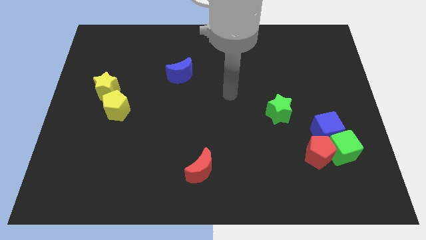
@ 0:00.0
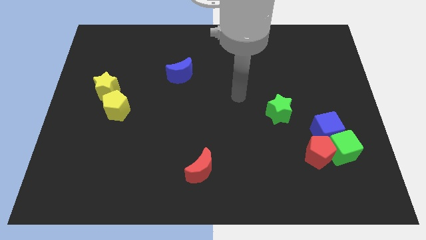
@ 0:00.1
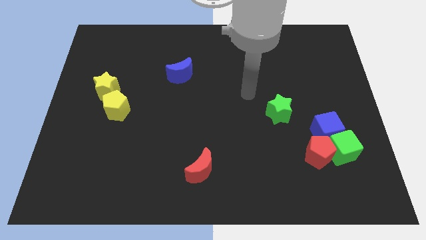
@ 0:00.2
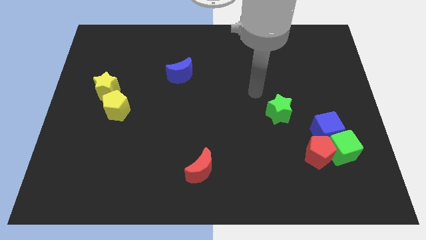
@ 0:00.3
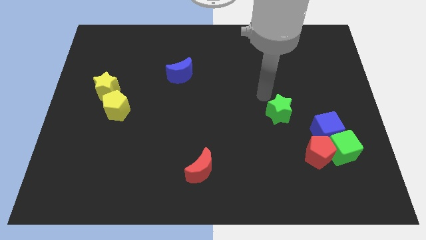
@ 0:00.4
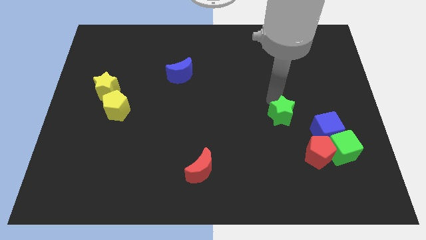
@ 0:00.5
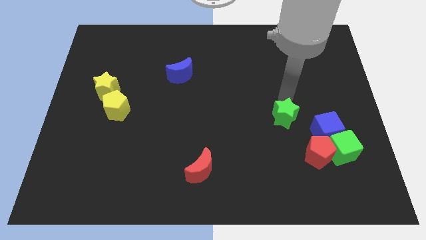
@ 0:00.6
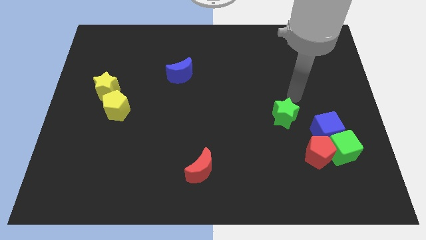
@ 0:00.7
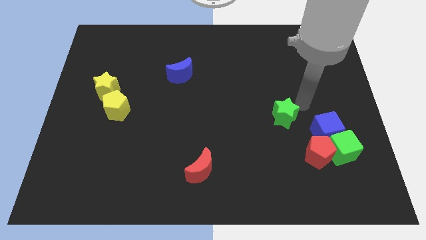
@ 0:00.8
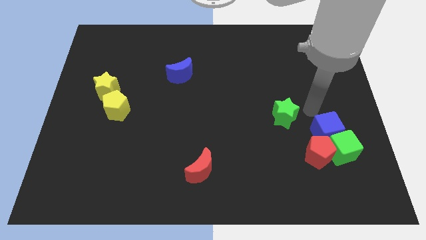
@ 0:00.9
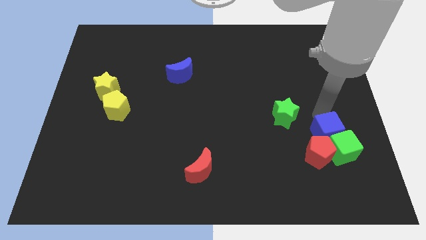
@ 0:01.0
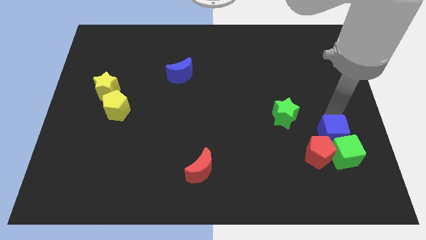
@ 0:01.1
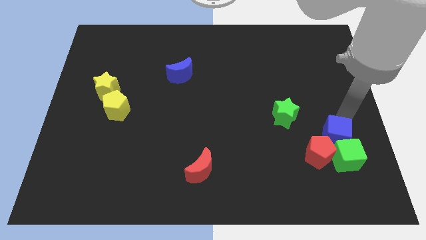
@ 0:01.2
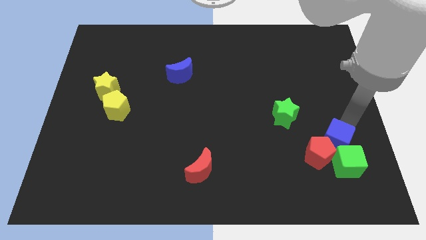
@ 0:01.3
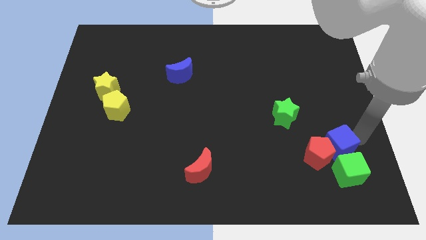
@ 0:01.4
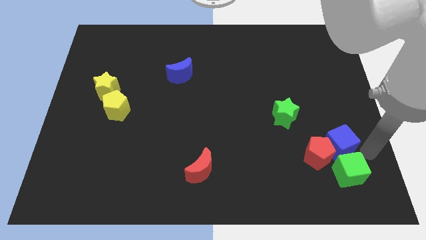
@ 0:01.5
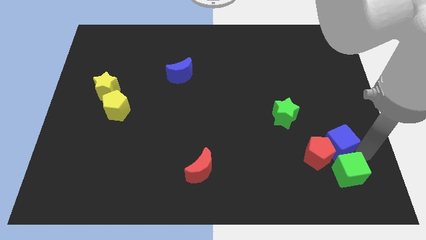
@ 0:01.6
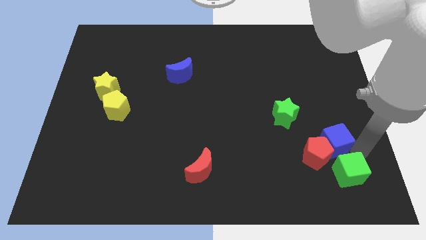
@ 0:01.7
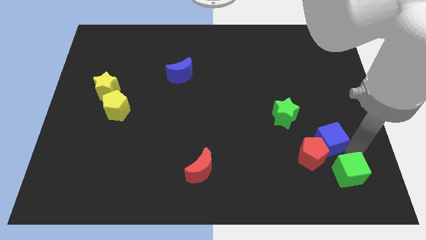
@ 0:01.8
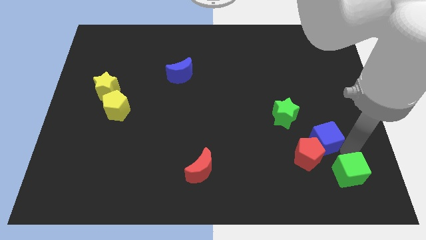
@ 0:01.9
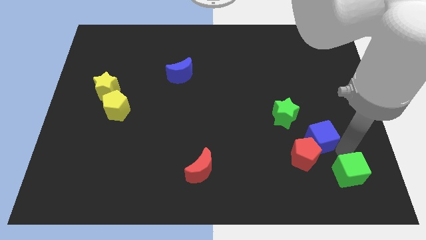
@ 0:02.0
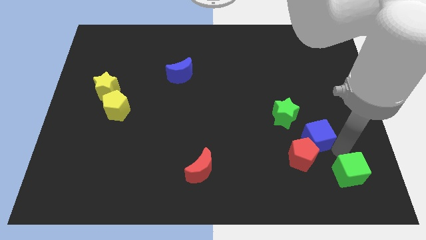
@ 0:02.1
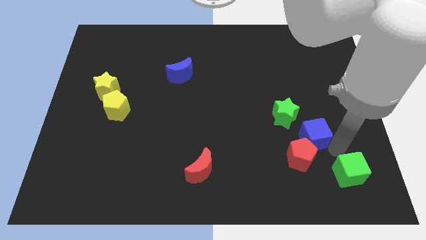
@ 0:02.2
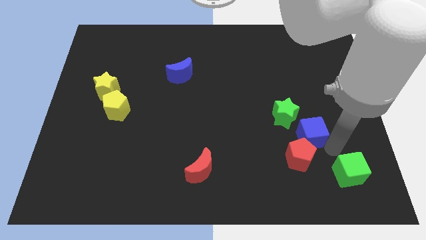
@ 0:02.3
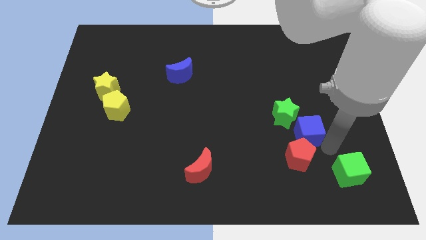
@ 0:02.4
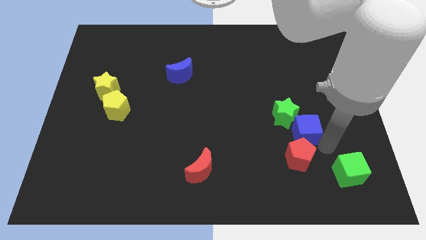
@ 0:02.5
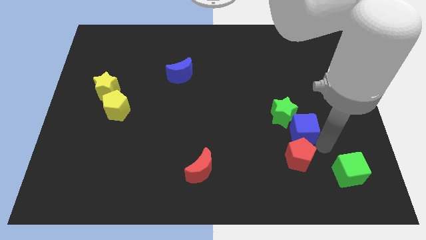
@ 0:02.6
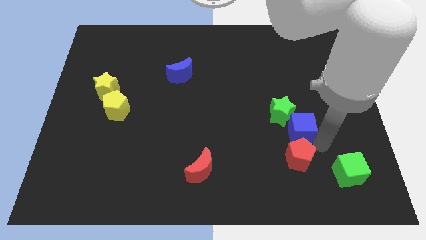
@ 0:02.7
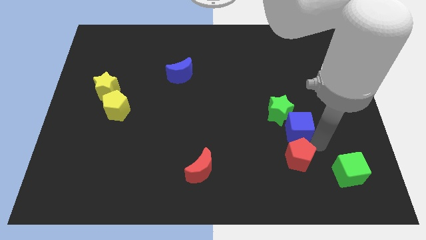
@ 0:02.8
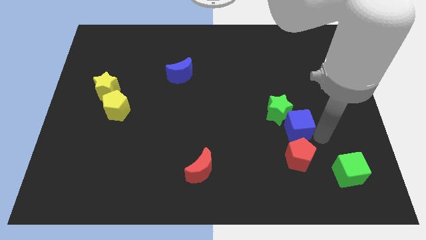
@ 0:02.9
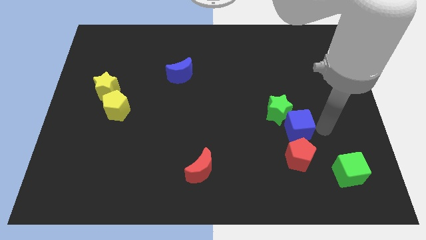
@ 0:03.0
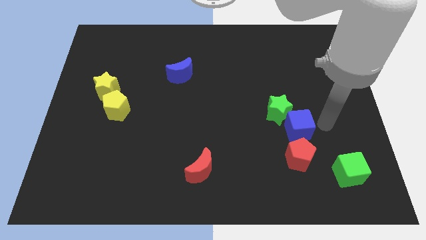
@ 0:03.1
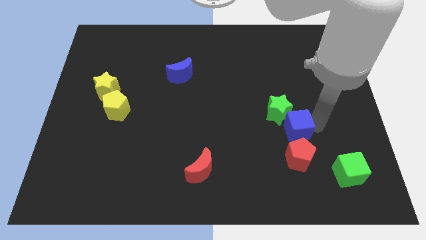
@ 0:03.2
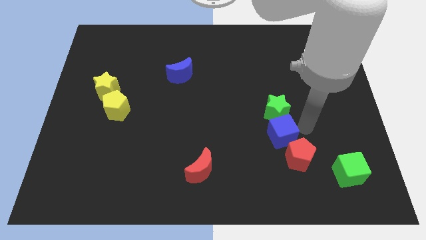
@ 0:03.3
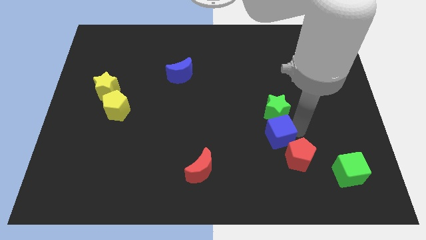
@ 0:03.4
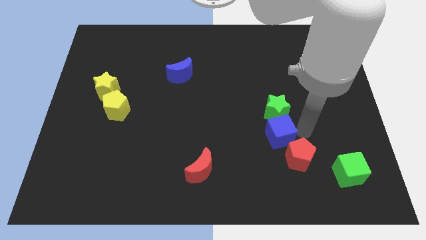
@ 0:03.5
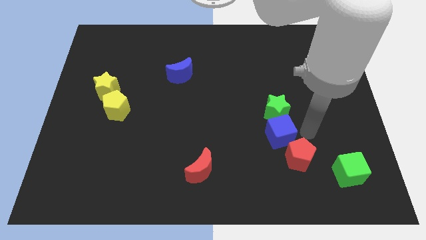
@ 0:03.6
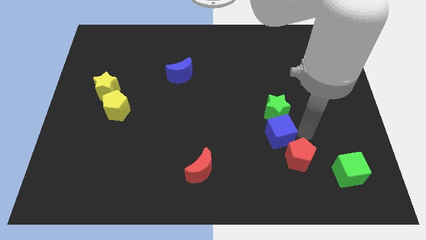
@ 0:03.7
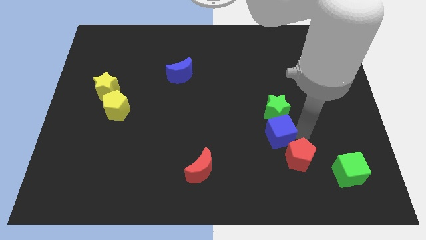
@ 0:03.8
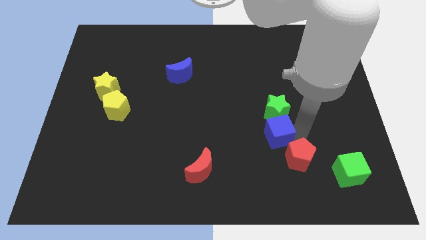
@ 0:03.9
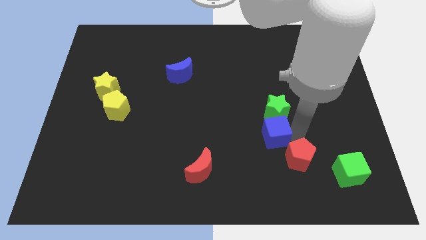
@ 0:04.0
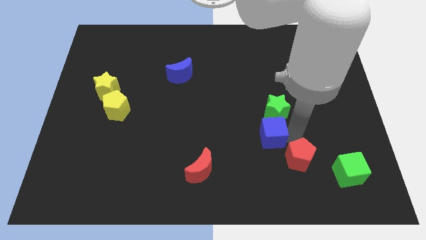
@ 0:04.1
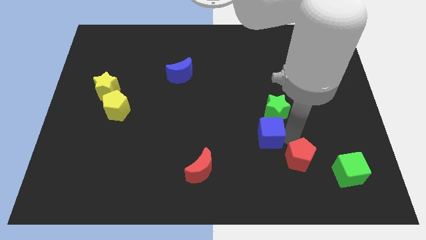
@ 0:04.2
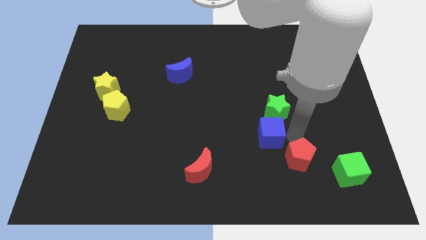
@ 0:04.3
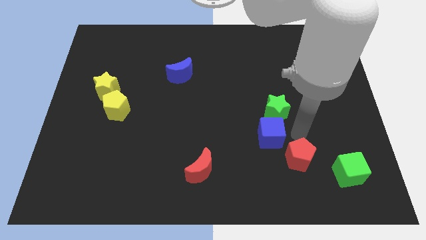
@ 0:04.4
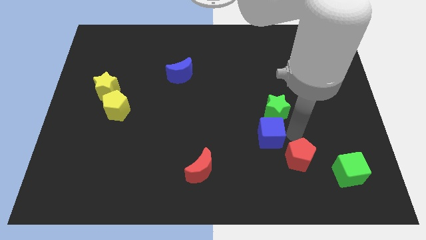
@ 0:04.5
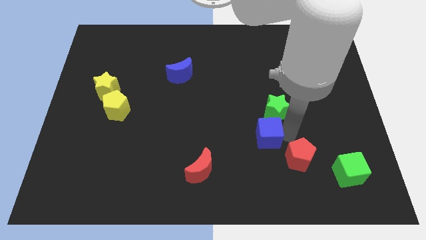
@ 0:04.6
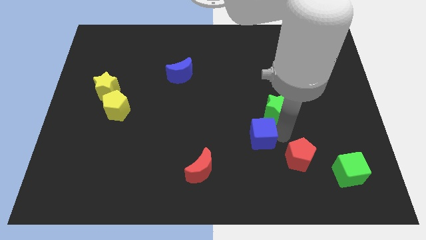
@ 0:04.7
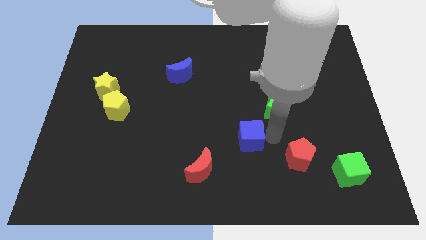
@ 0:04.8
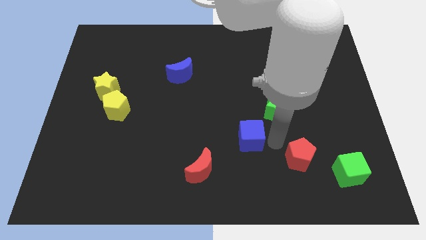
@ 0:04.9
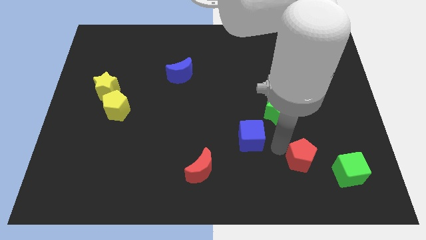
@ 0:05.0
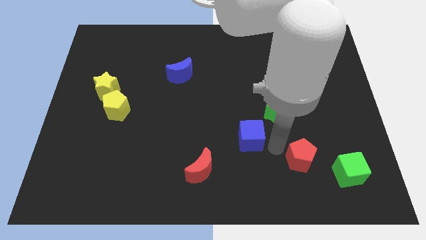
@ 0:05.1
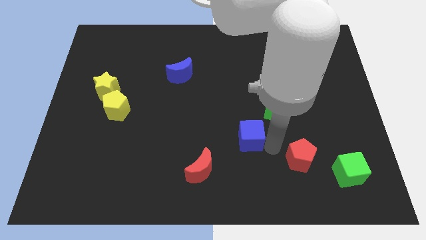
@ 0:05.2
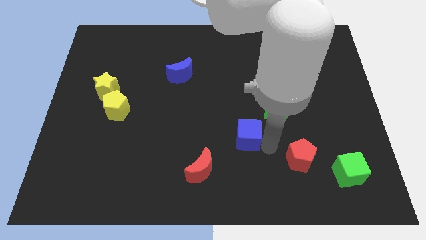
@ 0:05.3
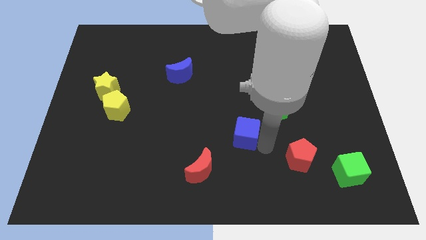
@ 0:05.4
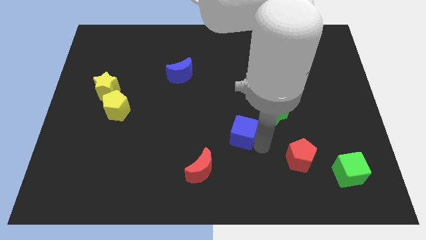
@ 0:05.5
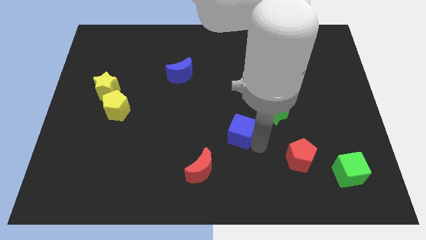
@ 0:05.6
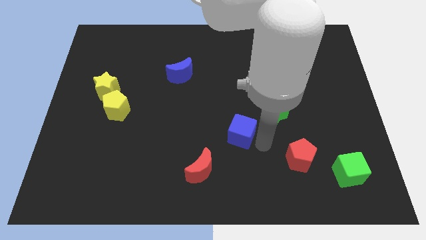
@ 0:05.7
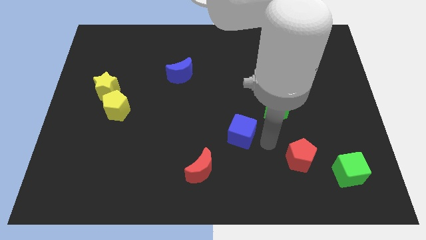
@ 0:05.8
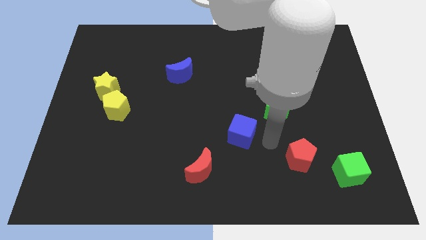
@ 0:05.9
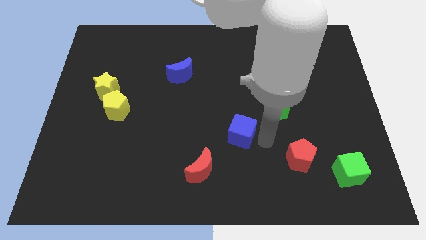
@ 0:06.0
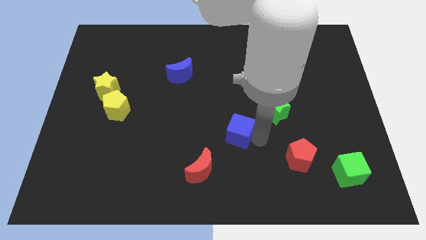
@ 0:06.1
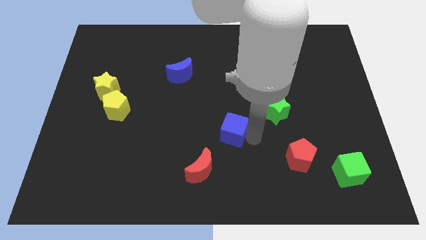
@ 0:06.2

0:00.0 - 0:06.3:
slide the blue cube to the left

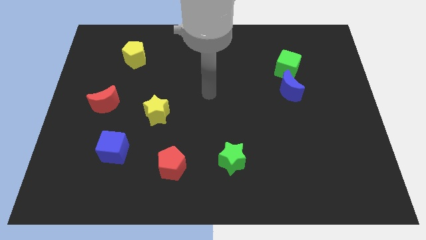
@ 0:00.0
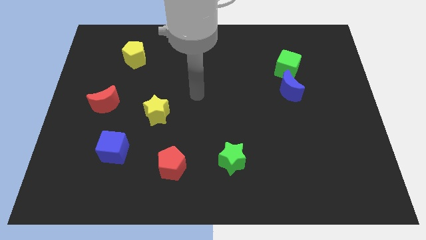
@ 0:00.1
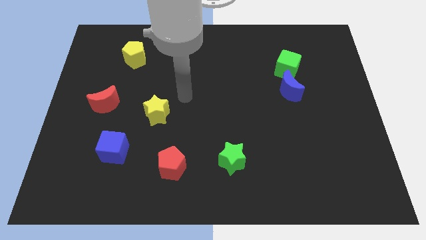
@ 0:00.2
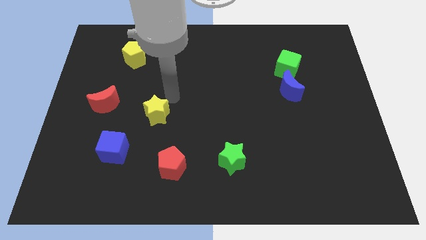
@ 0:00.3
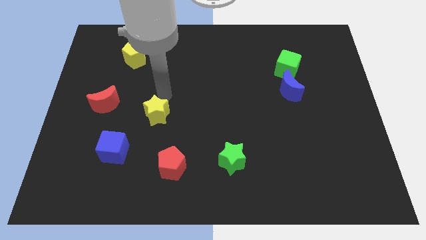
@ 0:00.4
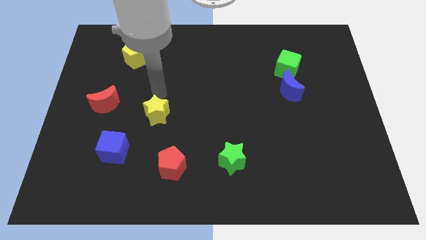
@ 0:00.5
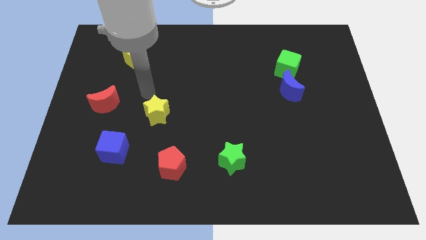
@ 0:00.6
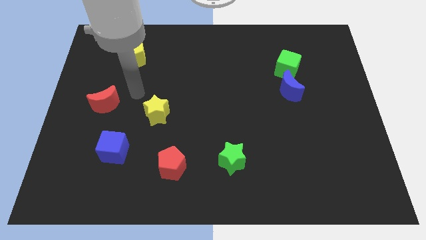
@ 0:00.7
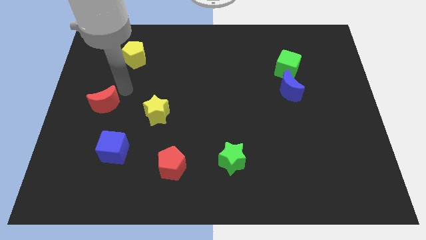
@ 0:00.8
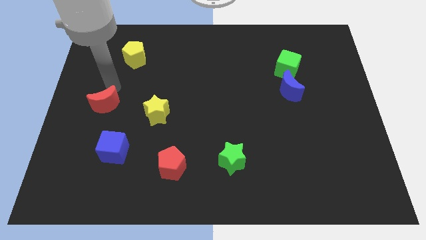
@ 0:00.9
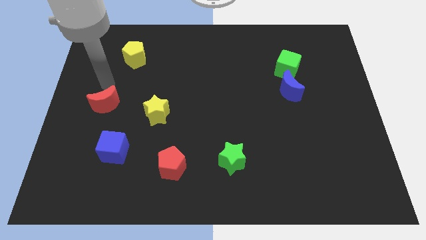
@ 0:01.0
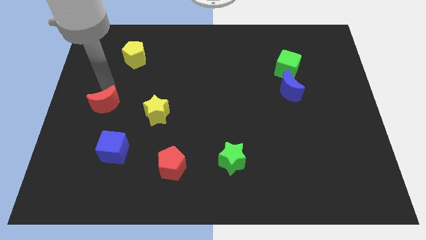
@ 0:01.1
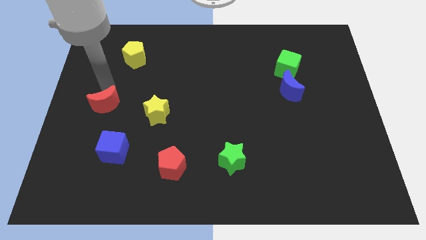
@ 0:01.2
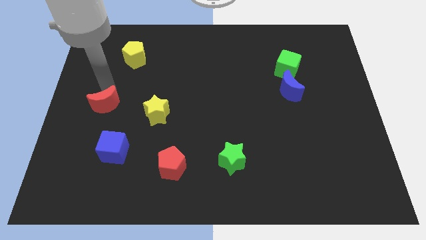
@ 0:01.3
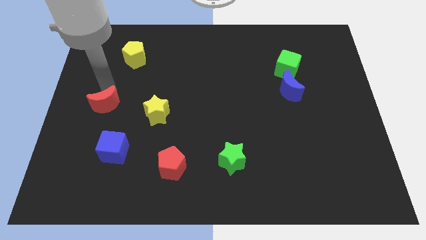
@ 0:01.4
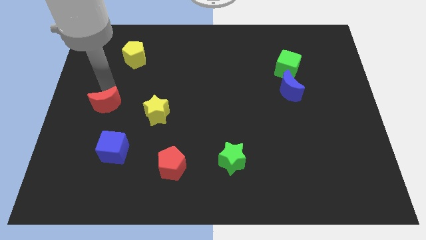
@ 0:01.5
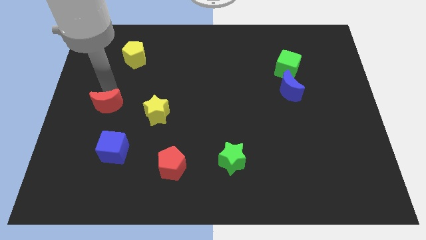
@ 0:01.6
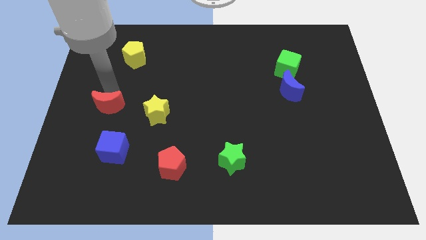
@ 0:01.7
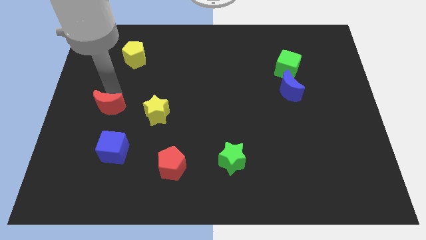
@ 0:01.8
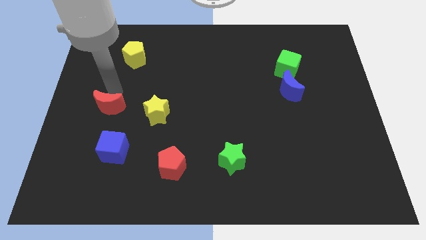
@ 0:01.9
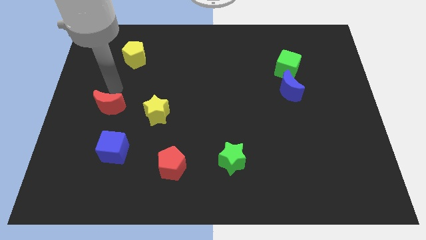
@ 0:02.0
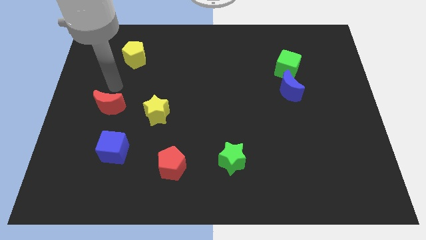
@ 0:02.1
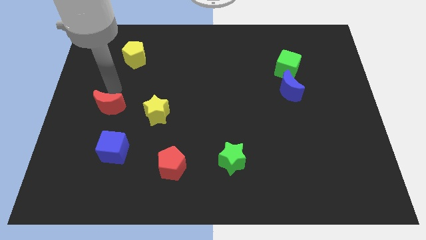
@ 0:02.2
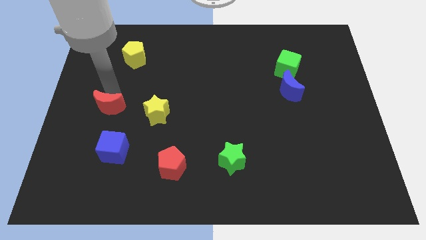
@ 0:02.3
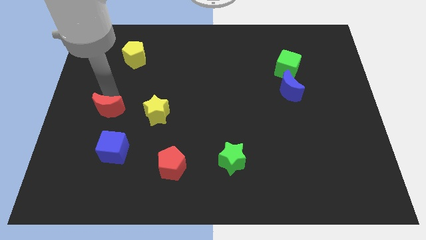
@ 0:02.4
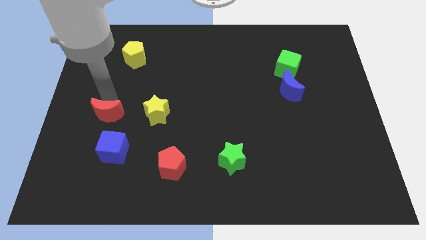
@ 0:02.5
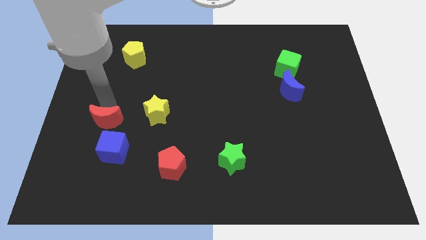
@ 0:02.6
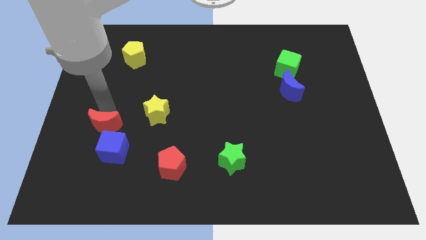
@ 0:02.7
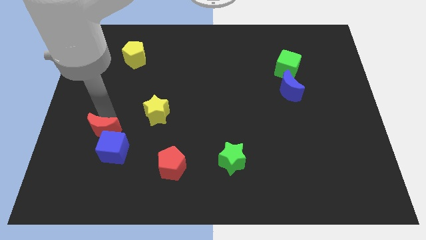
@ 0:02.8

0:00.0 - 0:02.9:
move the red moon a little down
